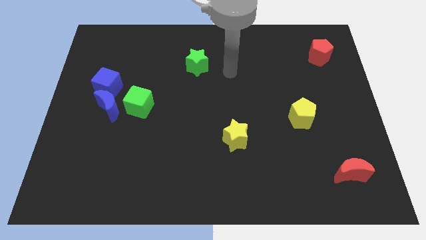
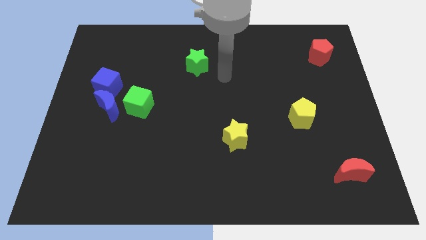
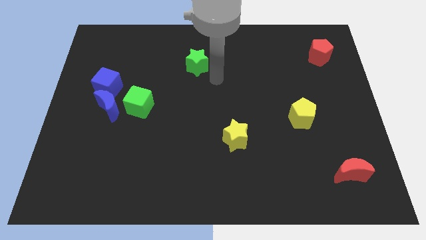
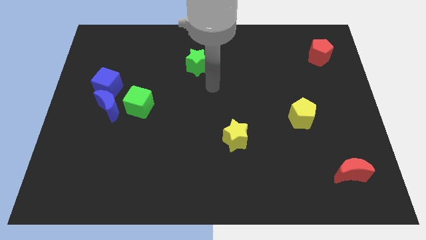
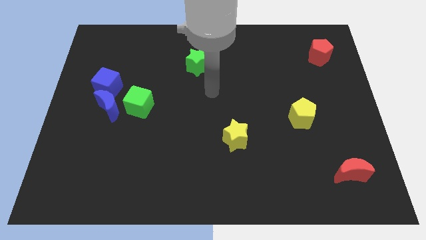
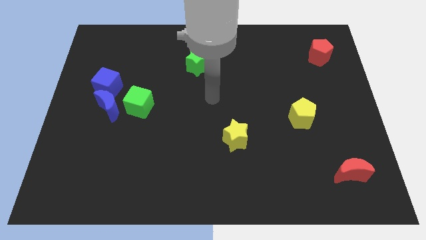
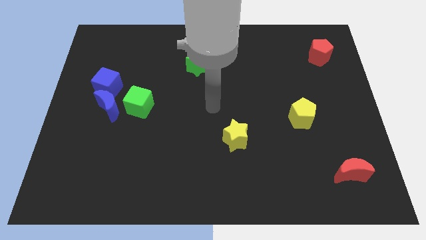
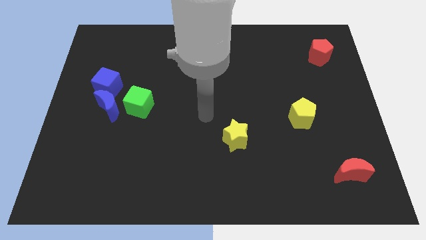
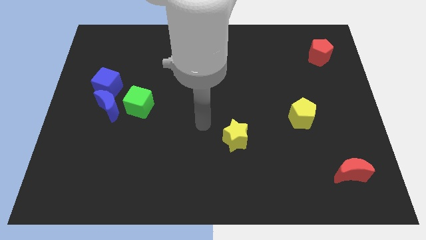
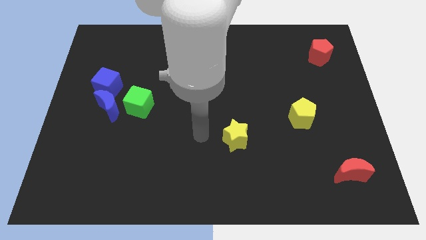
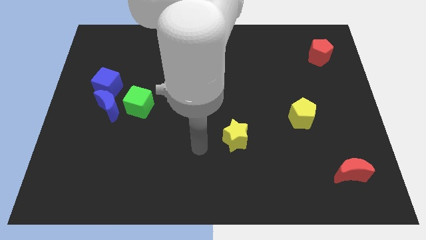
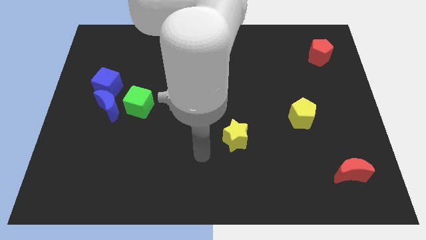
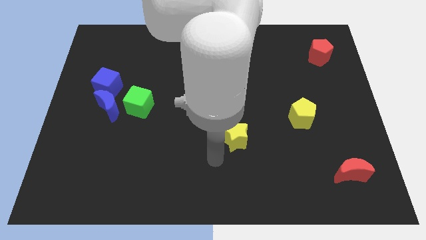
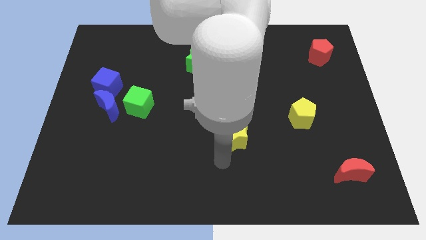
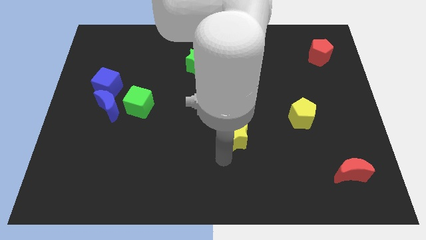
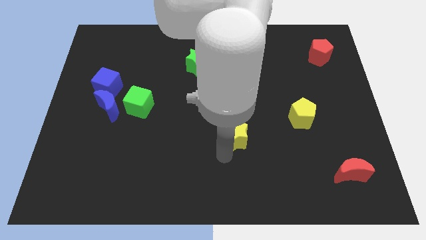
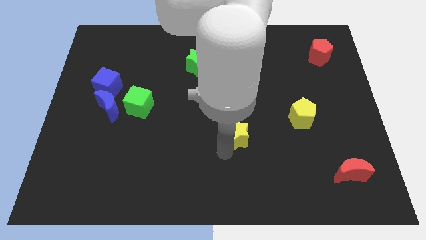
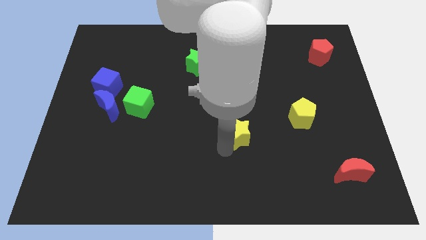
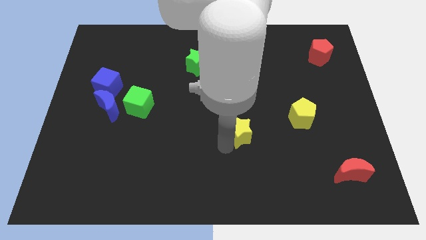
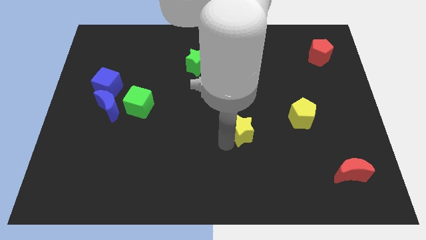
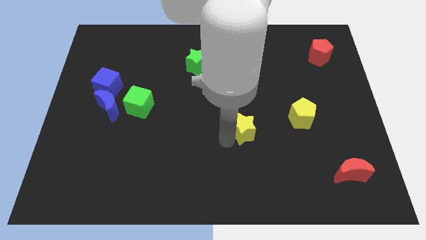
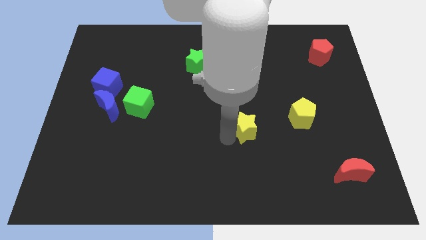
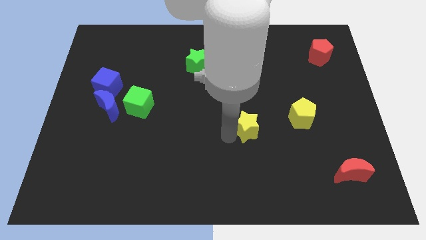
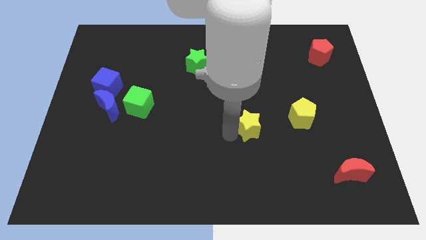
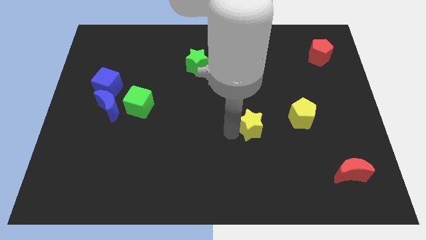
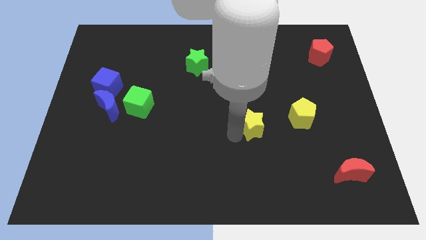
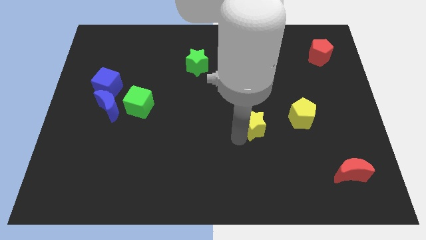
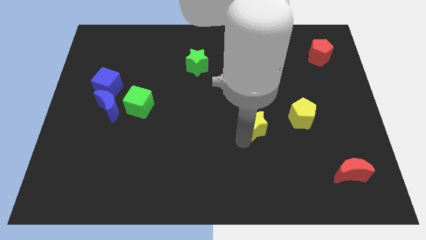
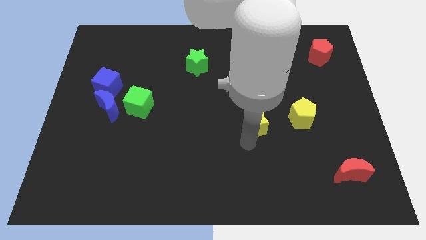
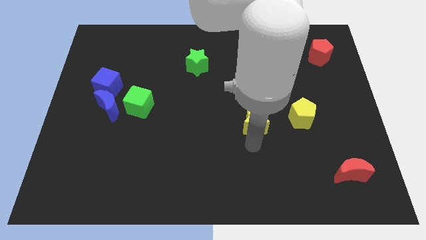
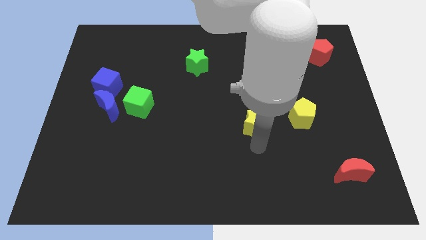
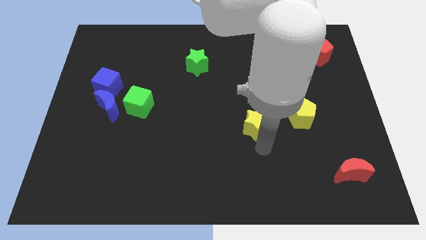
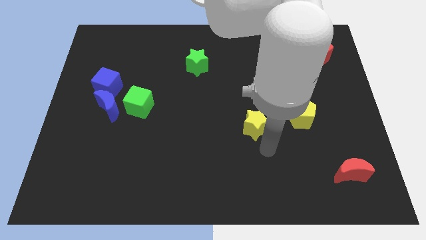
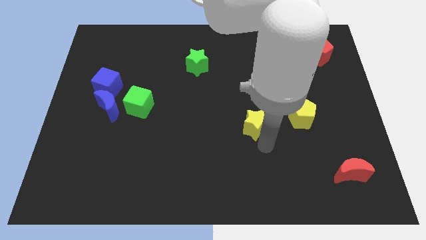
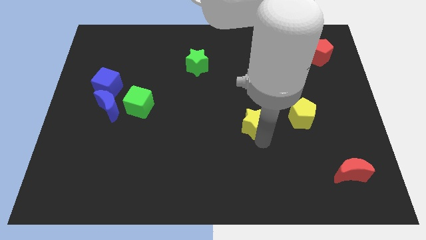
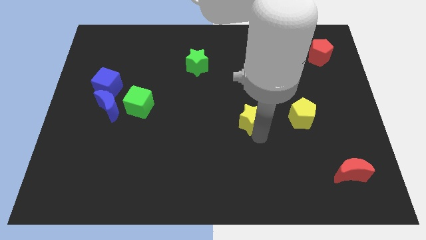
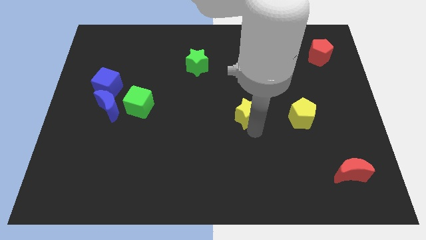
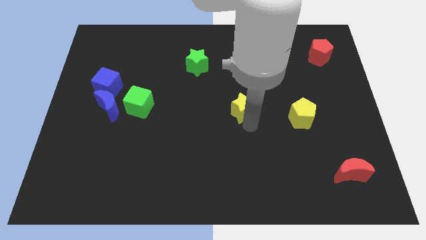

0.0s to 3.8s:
slide the yellow star slightly upwards

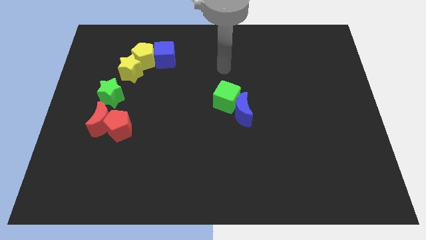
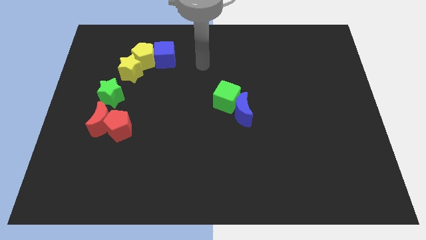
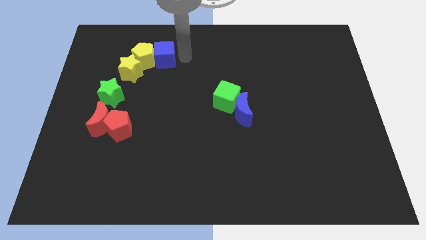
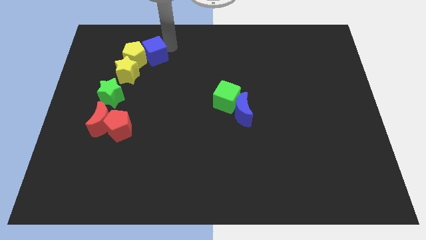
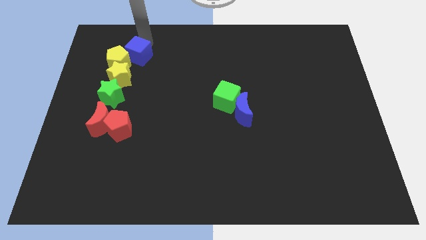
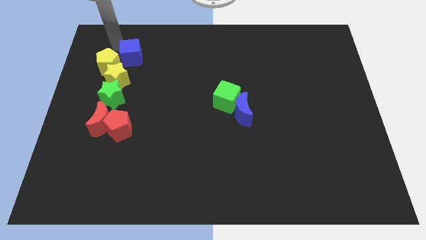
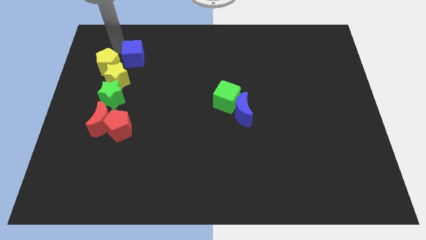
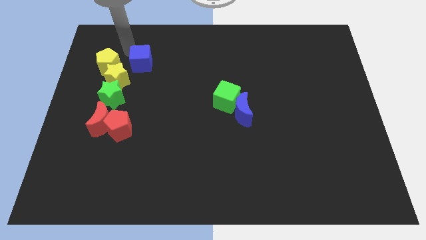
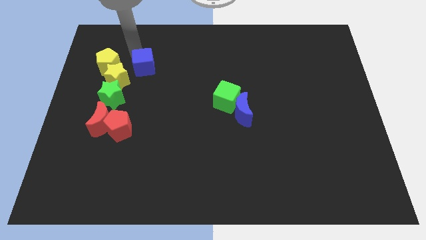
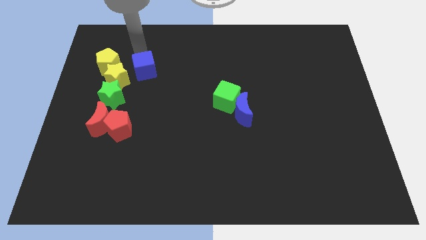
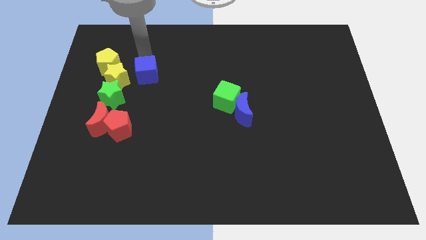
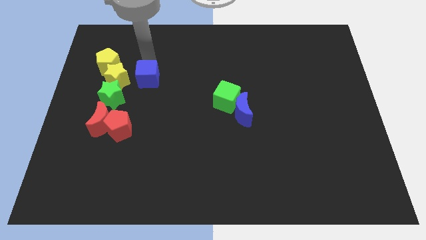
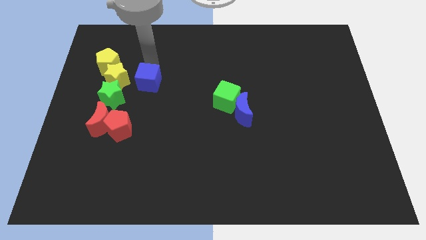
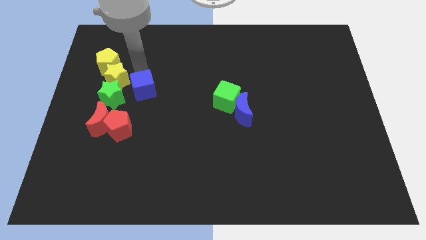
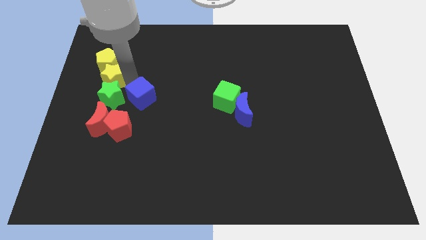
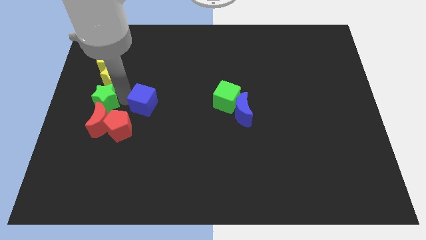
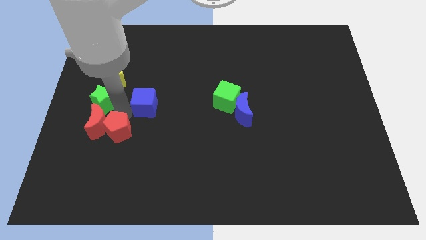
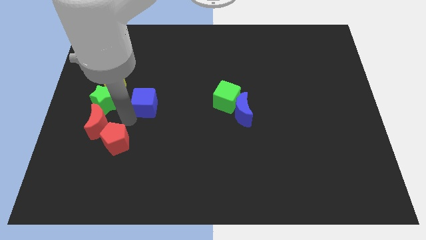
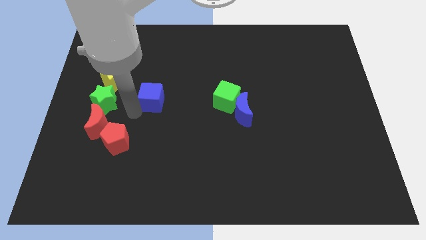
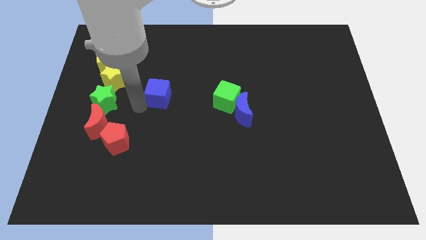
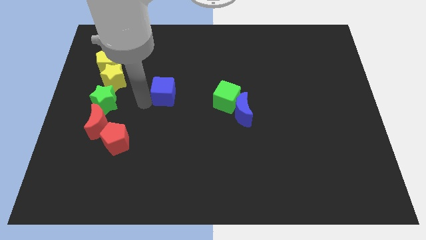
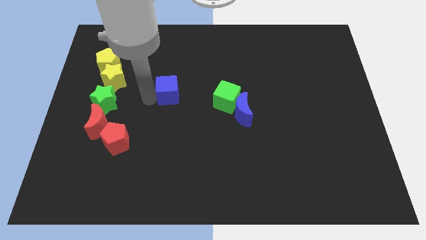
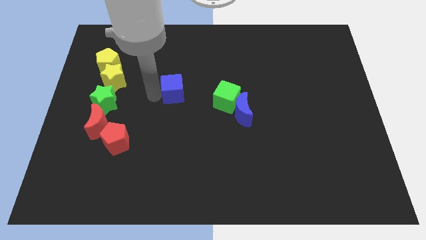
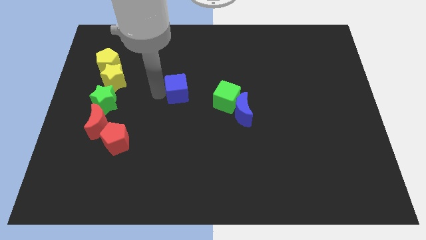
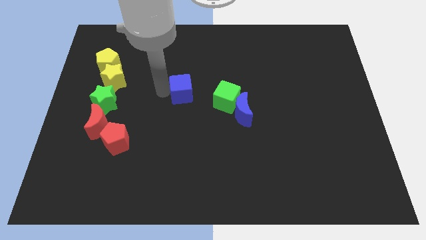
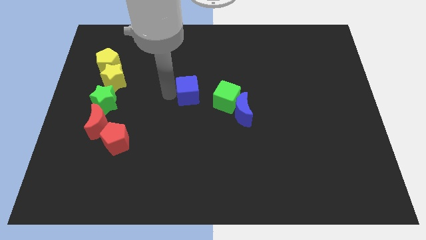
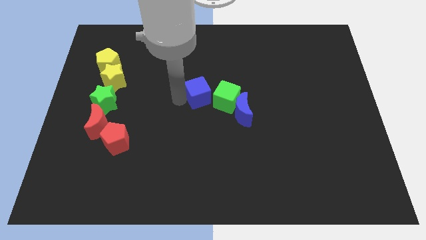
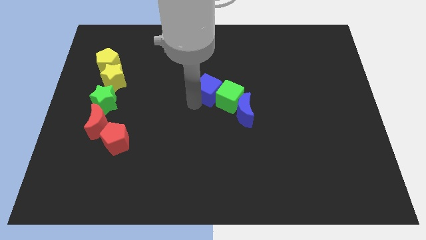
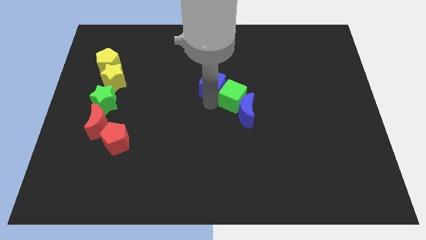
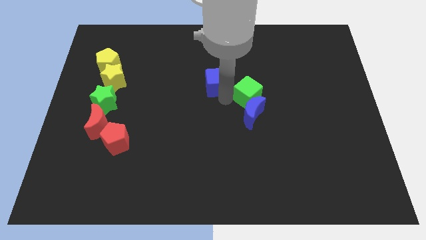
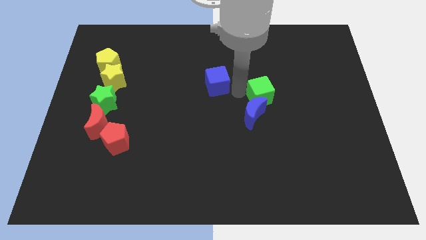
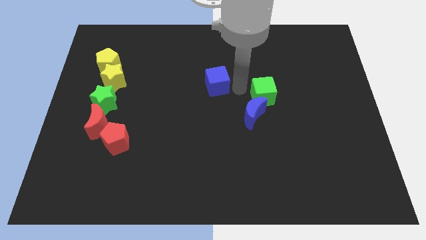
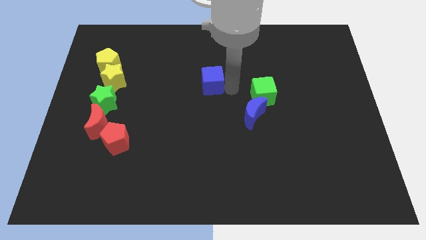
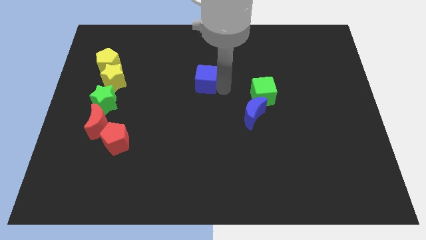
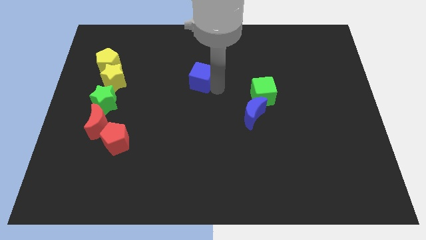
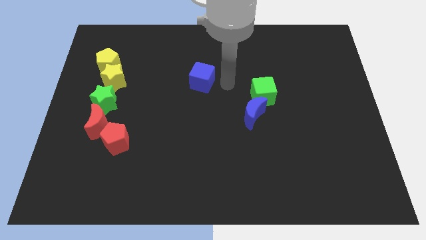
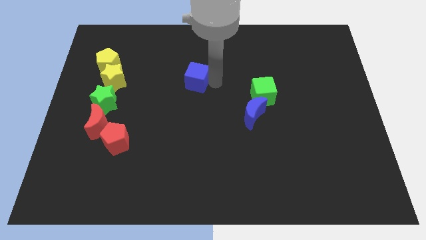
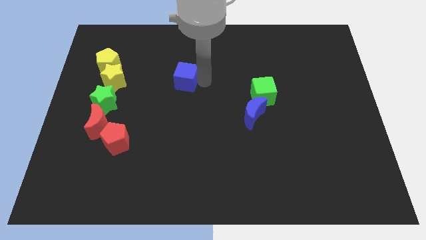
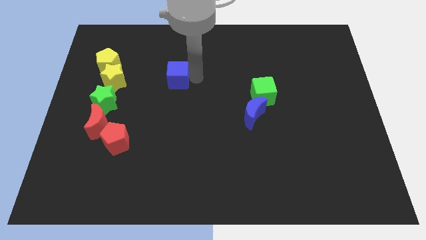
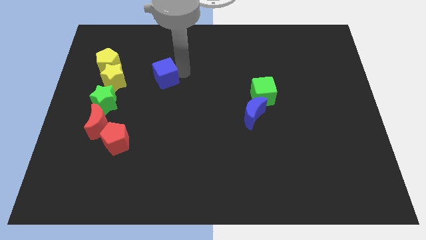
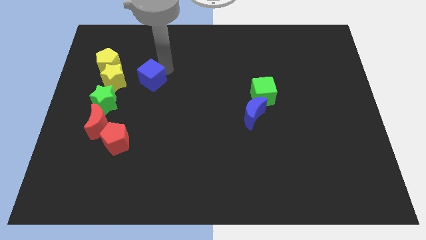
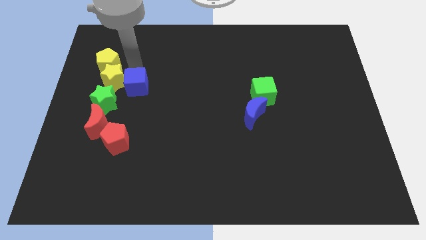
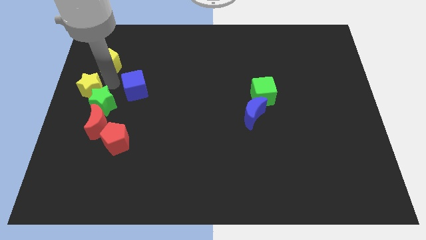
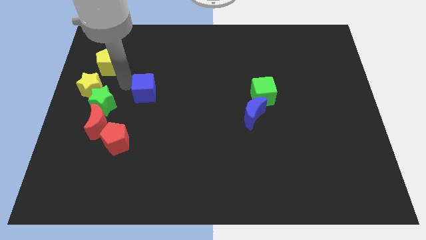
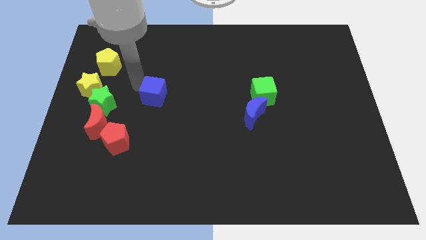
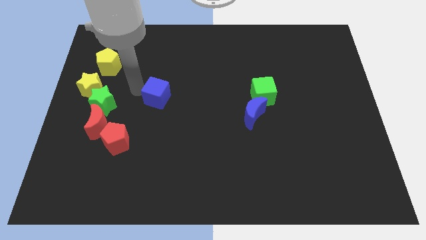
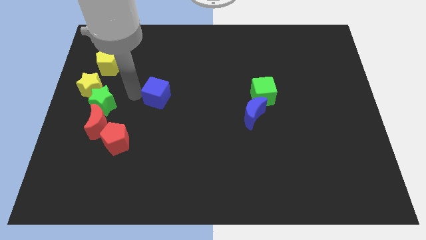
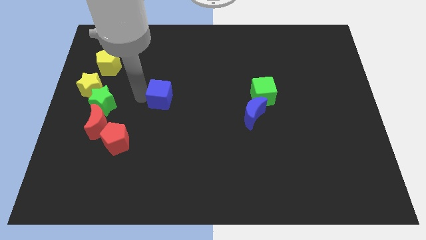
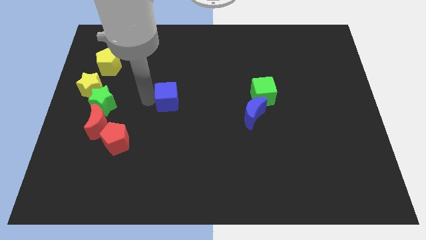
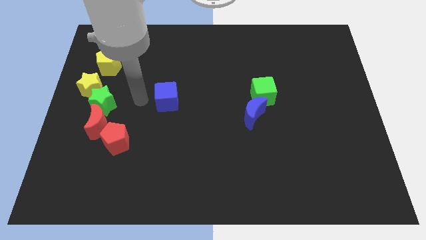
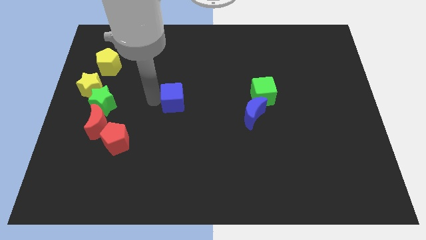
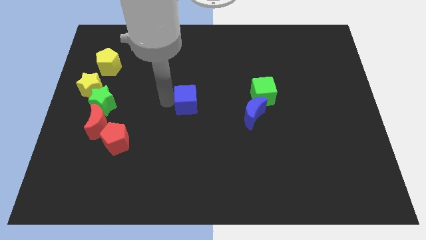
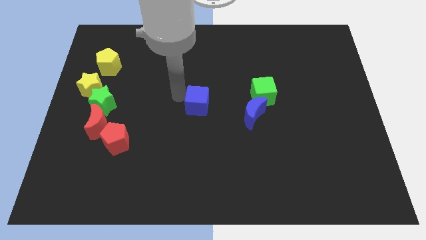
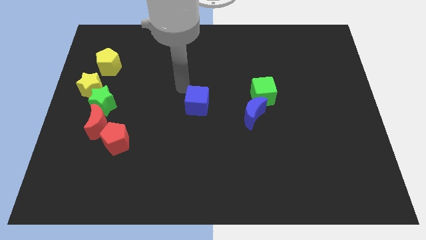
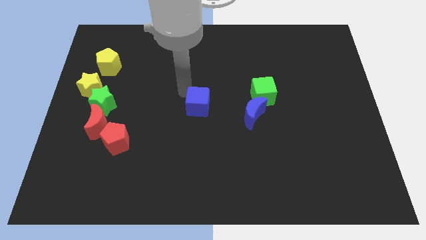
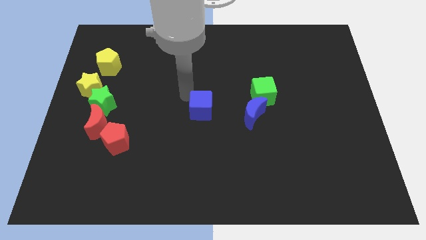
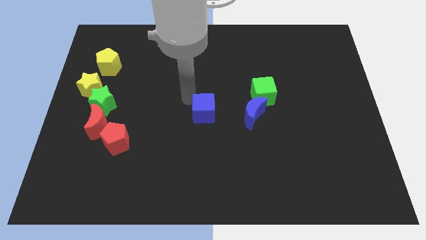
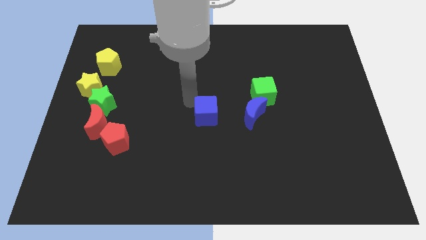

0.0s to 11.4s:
move the blue cube down and right
